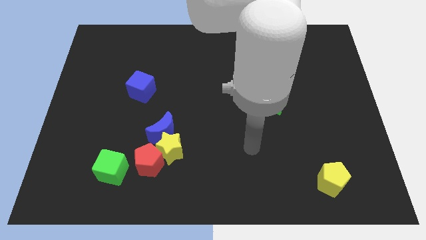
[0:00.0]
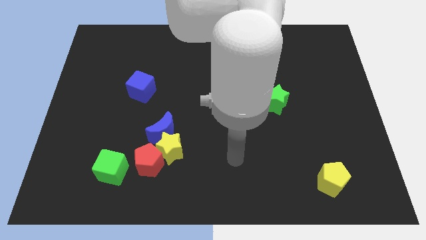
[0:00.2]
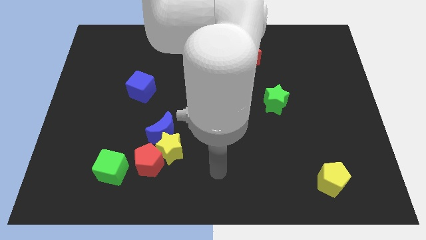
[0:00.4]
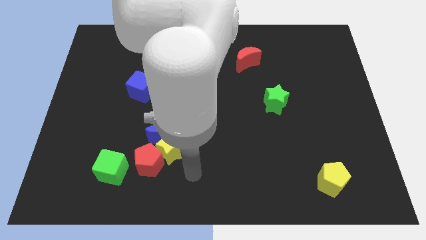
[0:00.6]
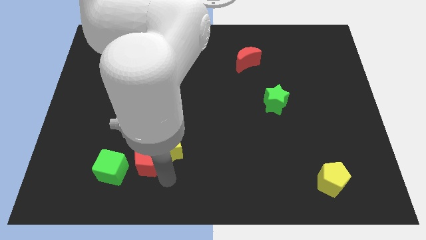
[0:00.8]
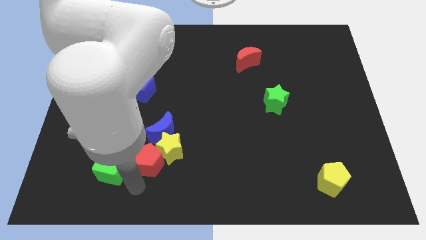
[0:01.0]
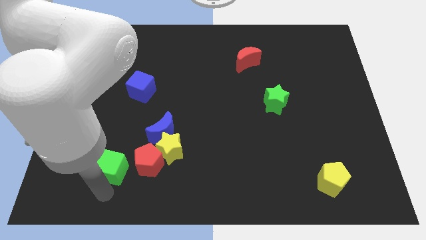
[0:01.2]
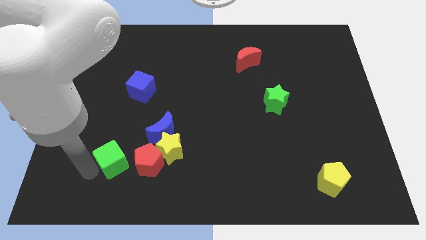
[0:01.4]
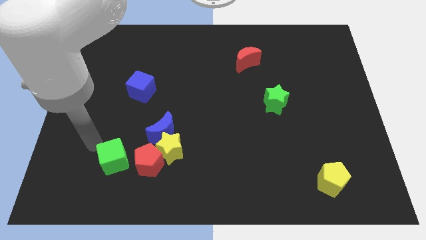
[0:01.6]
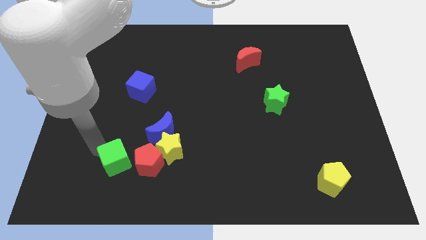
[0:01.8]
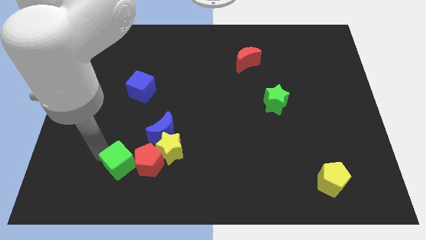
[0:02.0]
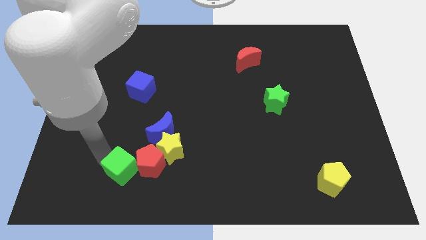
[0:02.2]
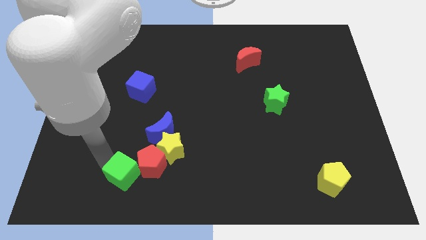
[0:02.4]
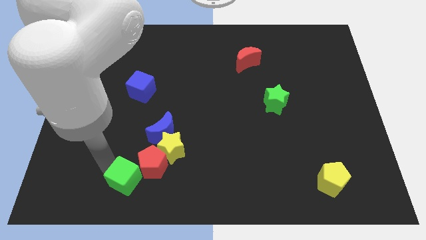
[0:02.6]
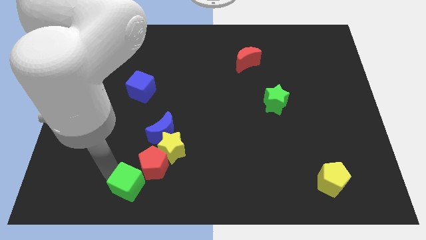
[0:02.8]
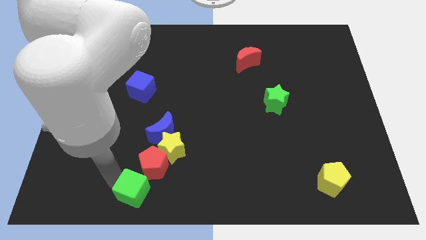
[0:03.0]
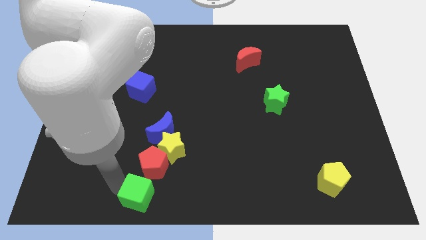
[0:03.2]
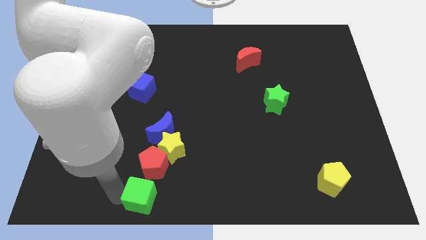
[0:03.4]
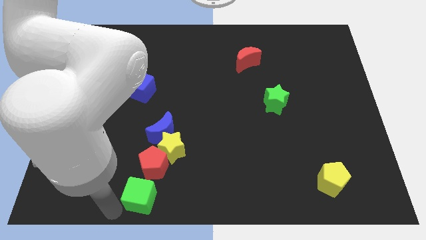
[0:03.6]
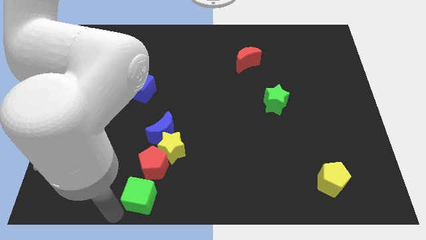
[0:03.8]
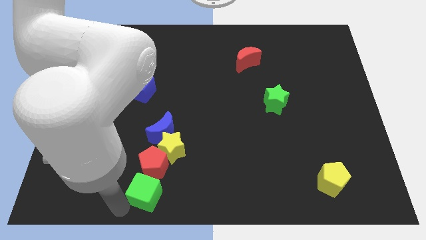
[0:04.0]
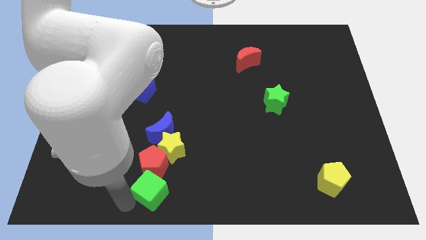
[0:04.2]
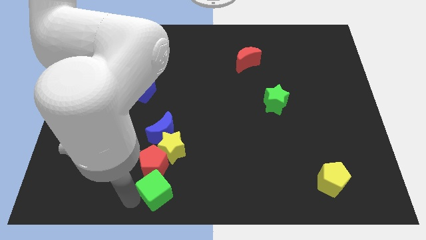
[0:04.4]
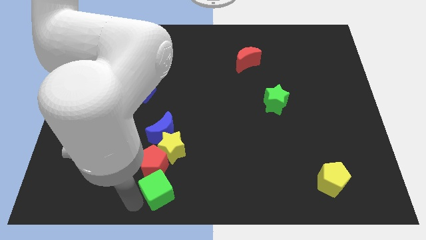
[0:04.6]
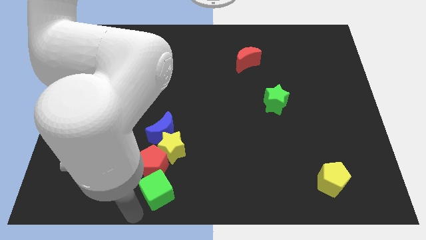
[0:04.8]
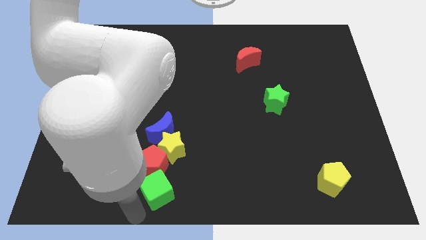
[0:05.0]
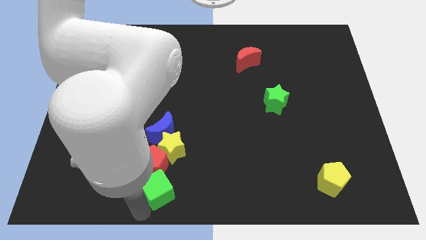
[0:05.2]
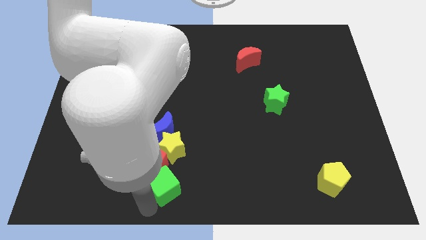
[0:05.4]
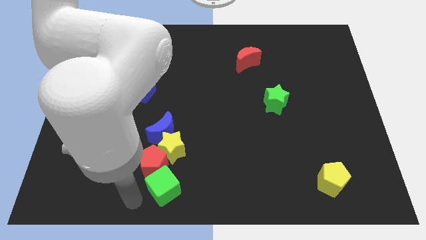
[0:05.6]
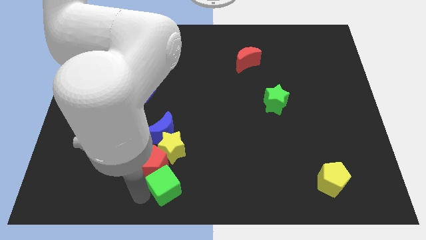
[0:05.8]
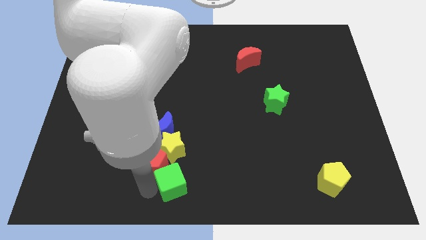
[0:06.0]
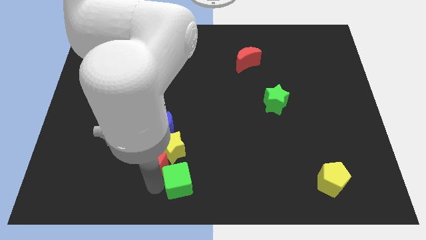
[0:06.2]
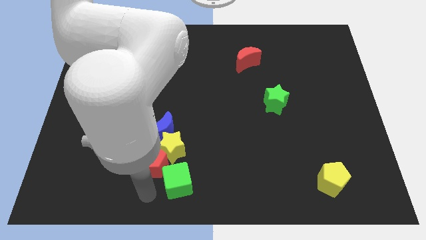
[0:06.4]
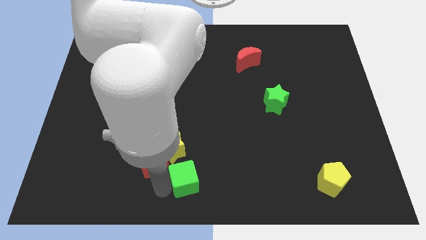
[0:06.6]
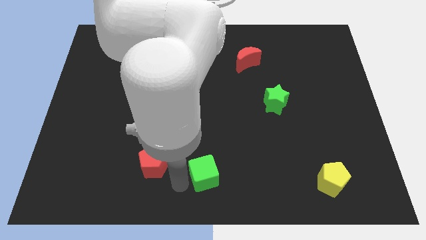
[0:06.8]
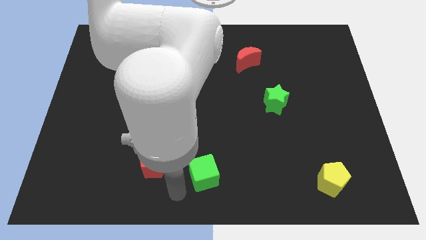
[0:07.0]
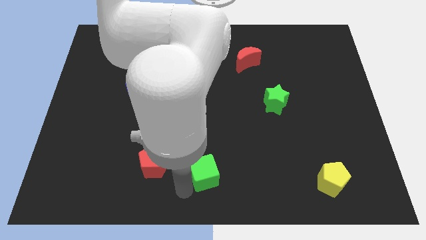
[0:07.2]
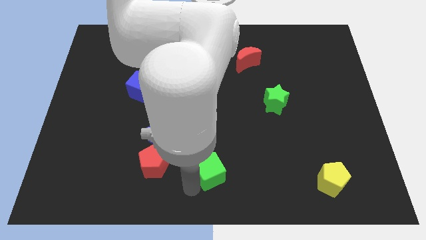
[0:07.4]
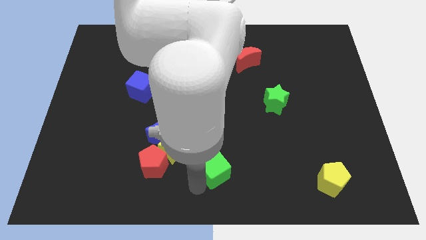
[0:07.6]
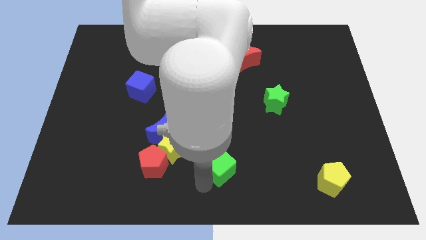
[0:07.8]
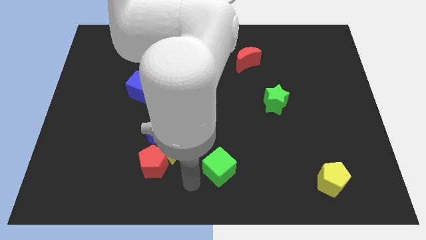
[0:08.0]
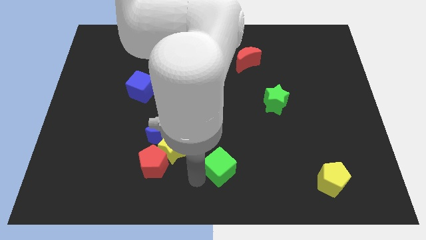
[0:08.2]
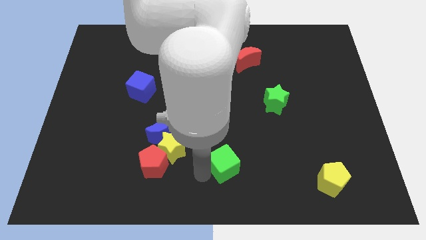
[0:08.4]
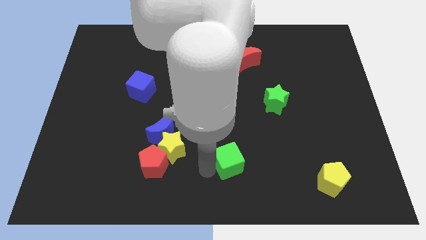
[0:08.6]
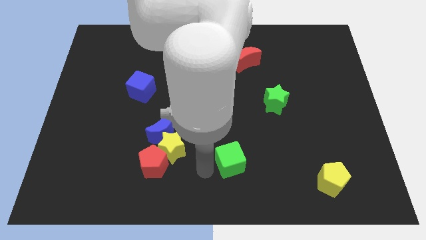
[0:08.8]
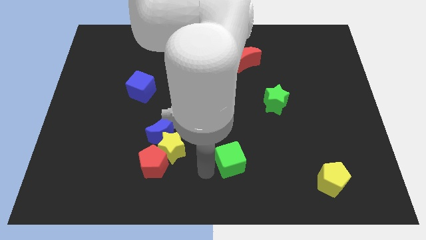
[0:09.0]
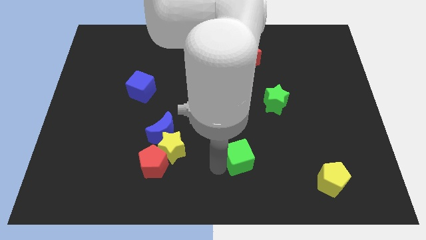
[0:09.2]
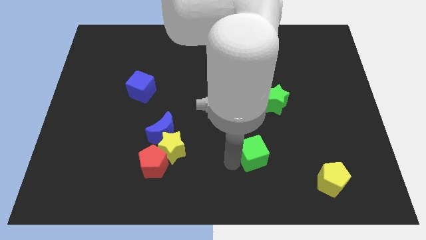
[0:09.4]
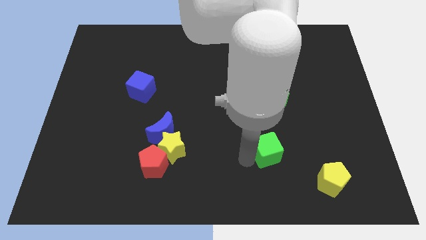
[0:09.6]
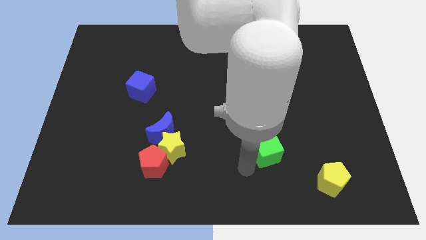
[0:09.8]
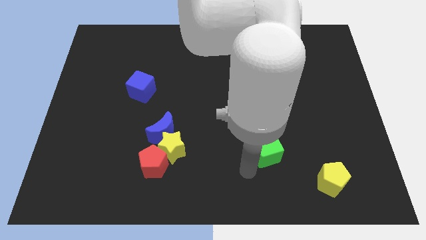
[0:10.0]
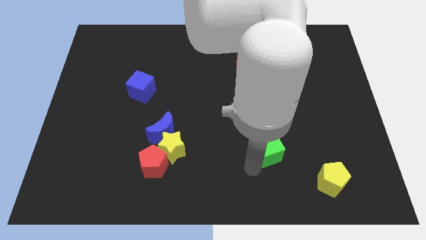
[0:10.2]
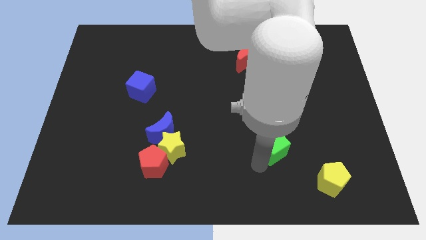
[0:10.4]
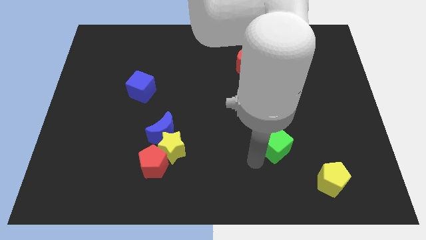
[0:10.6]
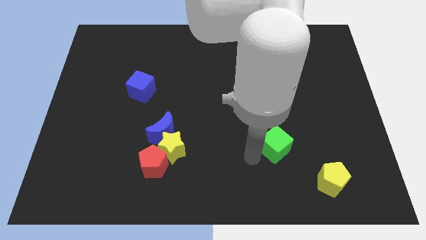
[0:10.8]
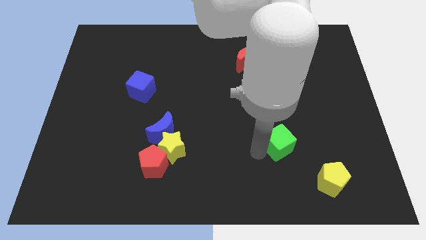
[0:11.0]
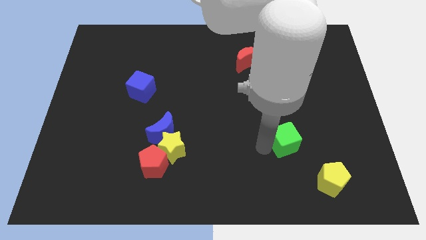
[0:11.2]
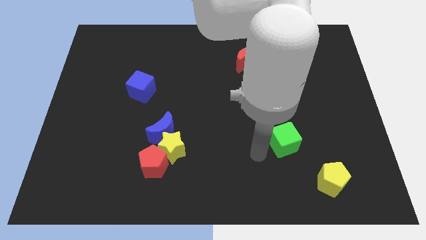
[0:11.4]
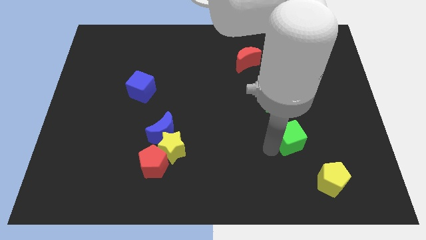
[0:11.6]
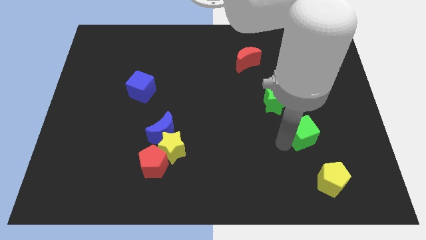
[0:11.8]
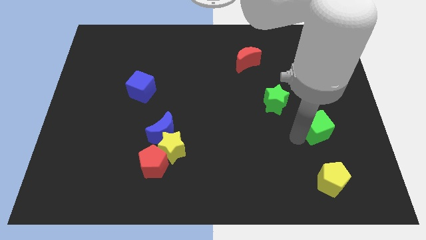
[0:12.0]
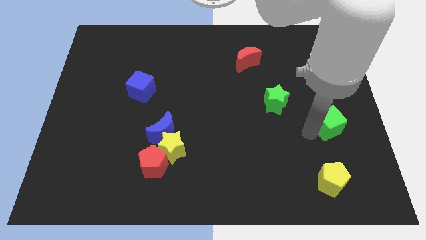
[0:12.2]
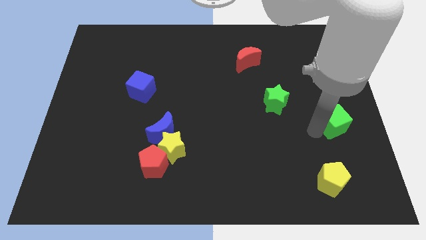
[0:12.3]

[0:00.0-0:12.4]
put the green cube to the center right
